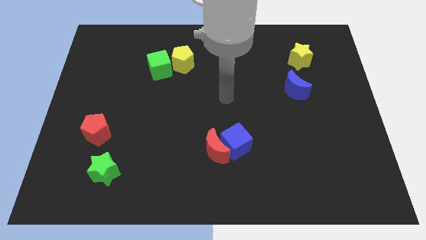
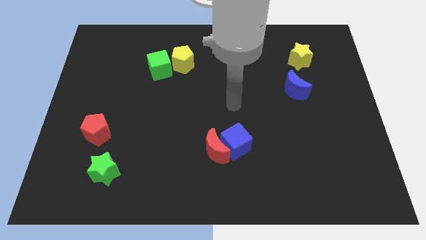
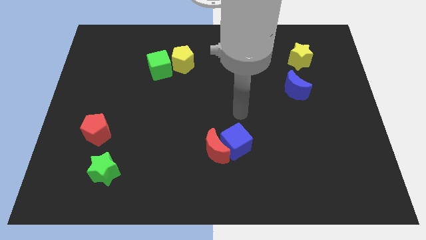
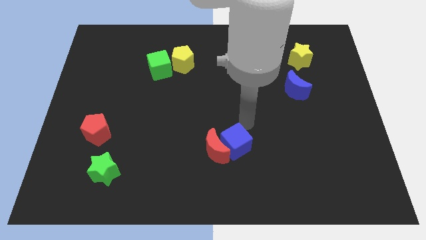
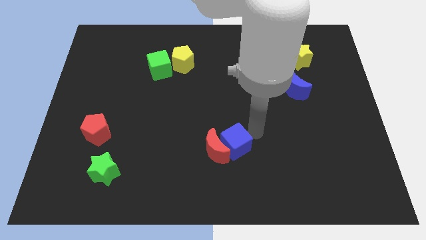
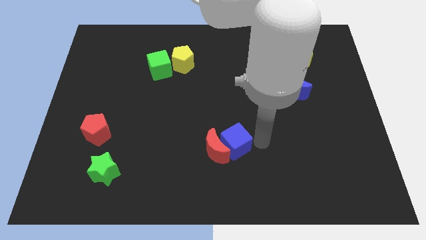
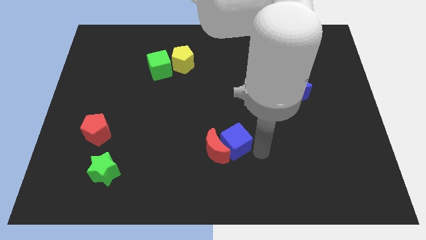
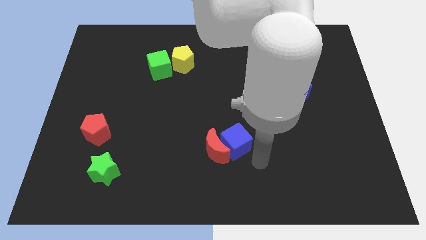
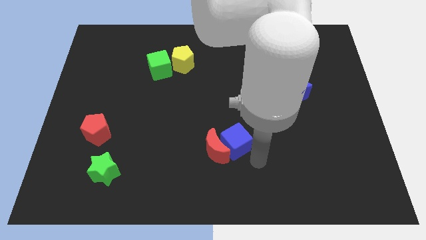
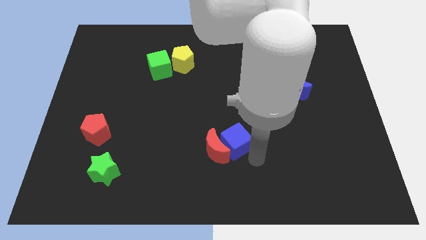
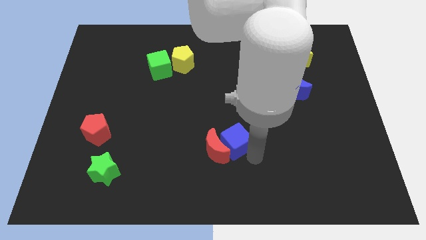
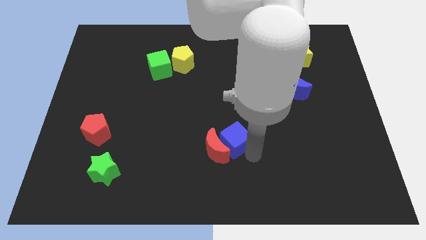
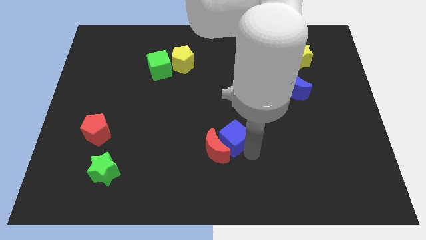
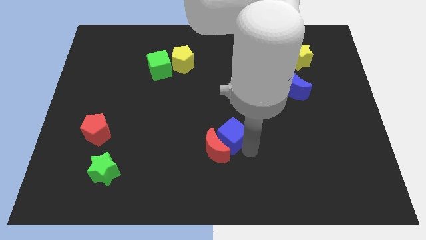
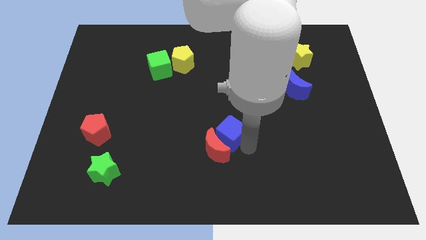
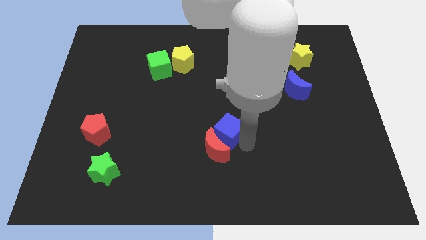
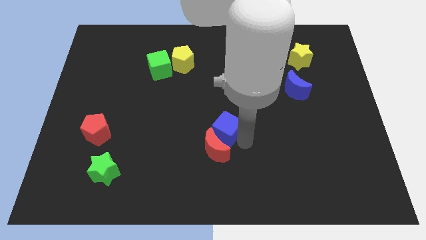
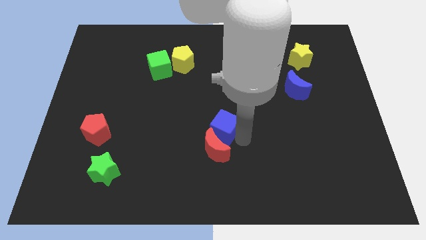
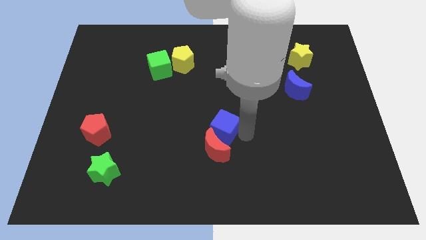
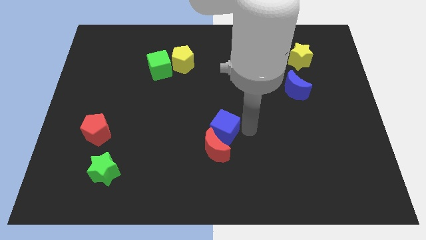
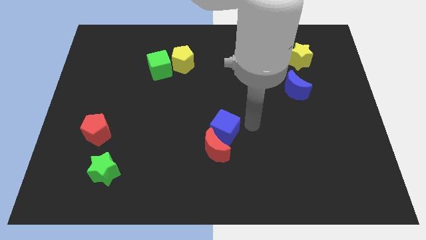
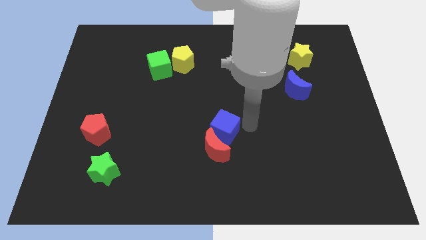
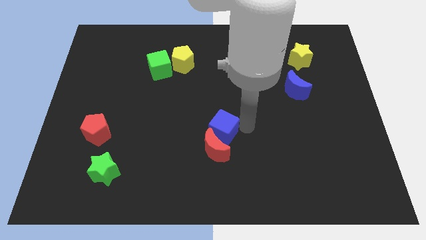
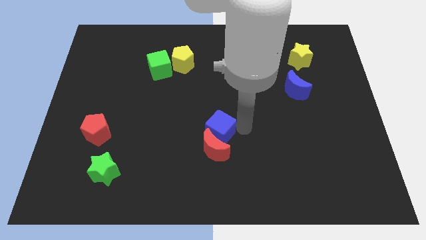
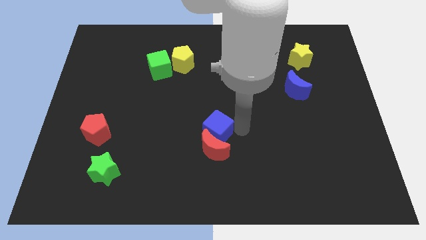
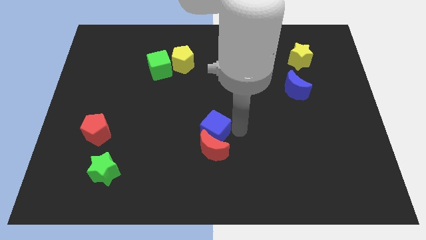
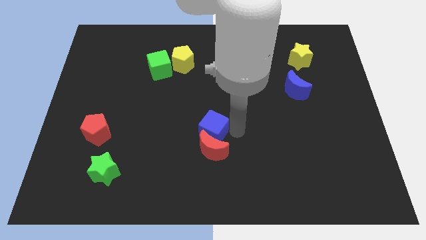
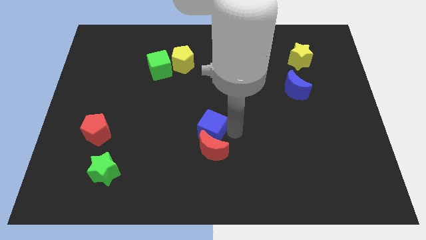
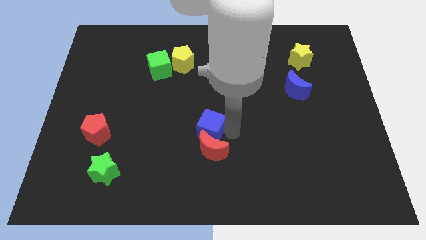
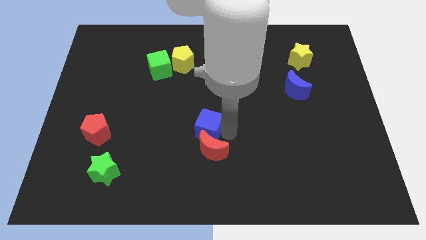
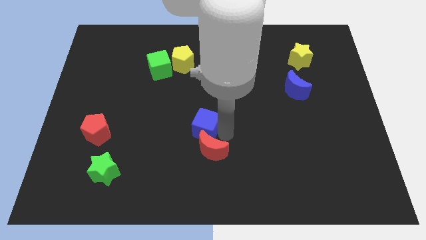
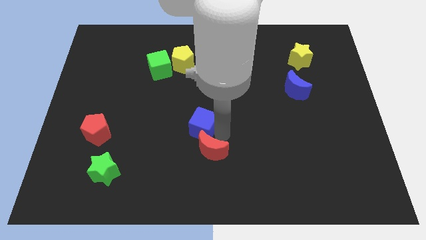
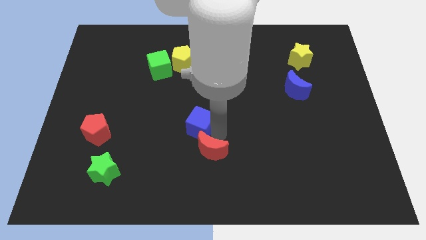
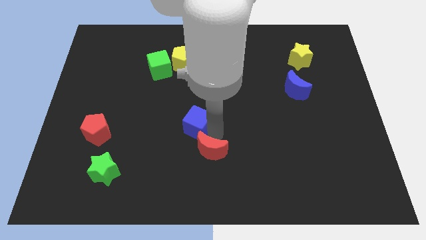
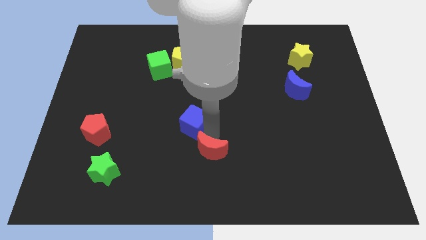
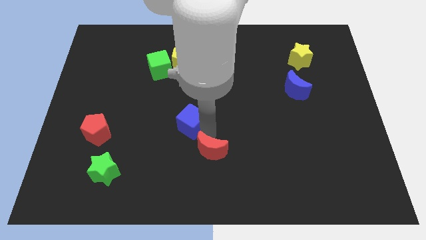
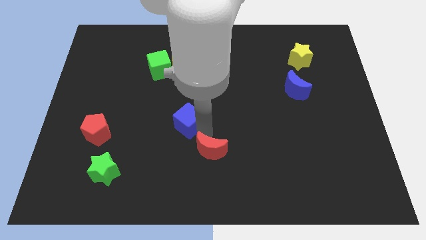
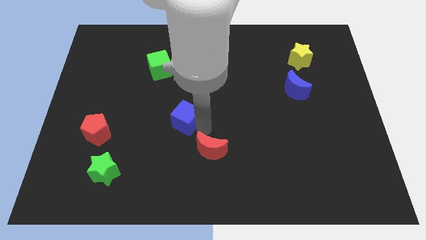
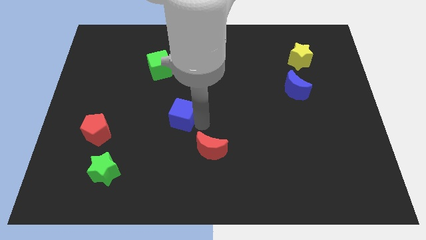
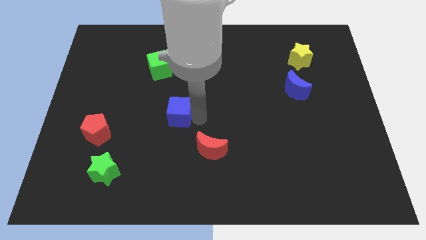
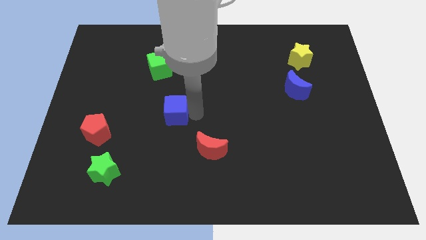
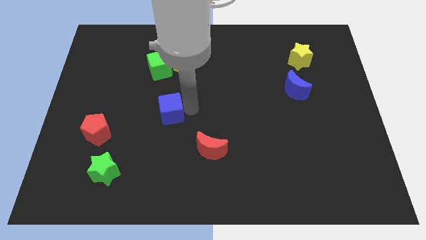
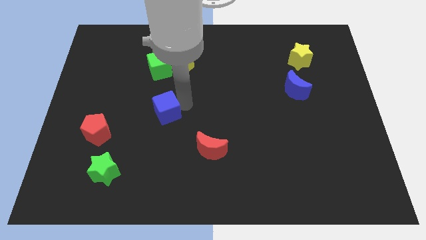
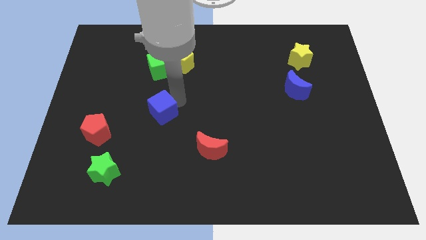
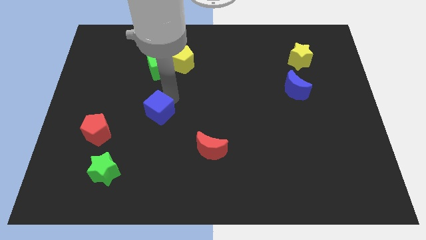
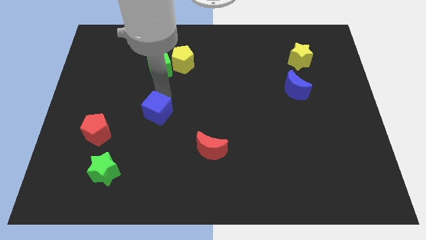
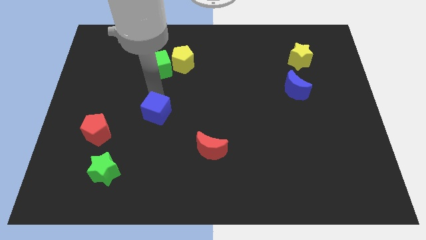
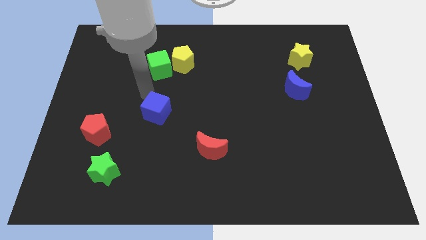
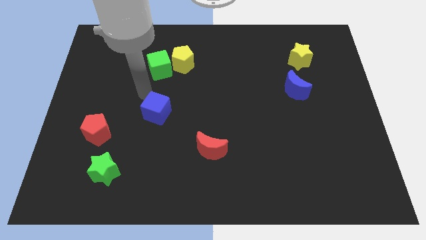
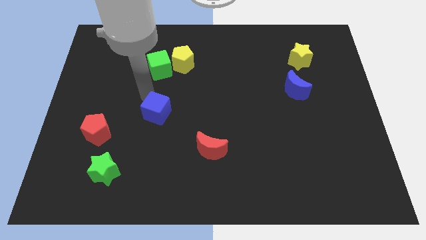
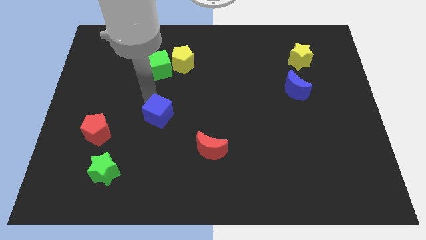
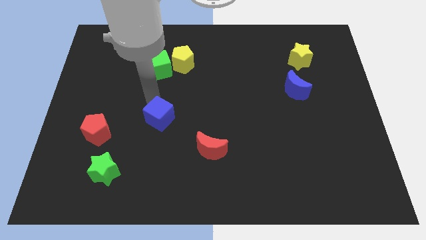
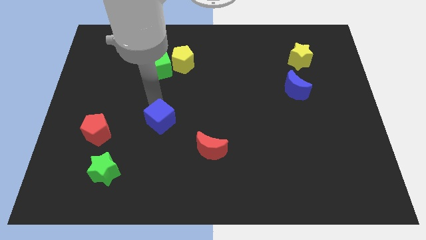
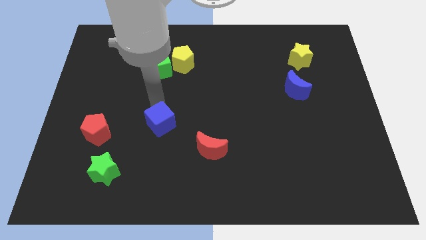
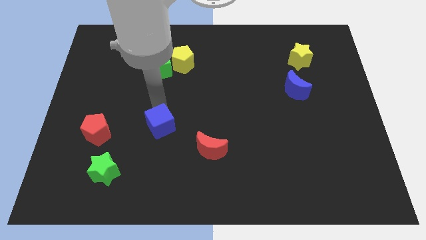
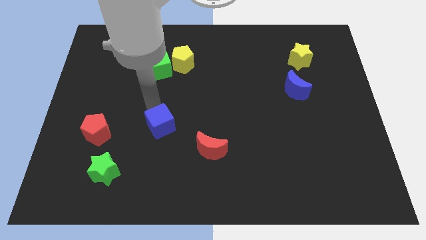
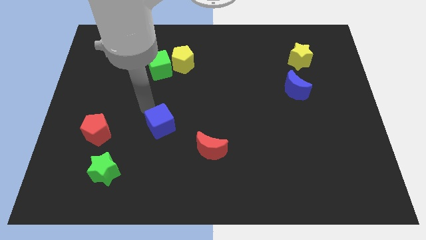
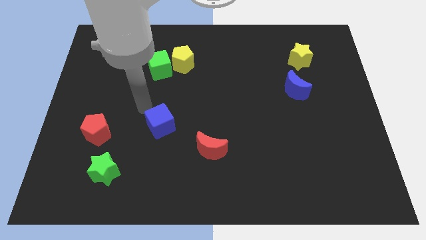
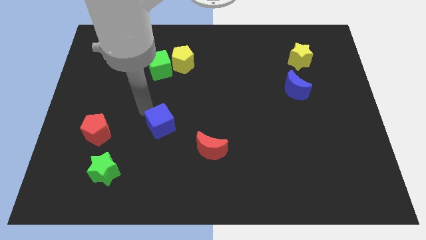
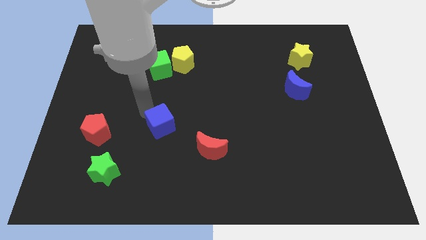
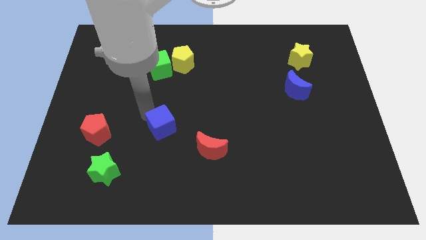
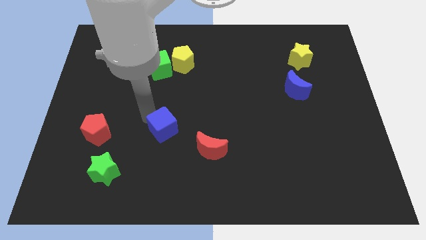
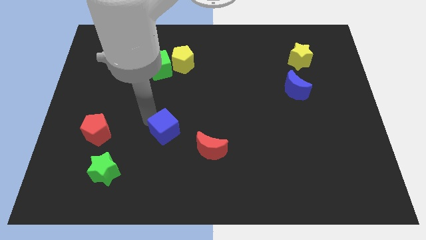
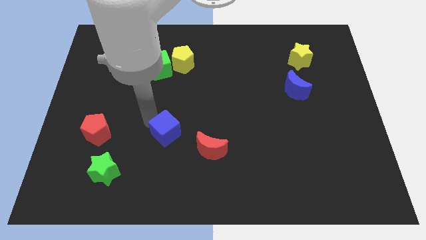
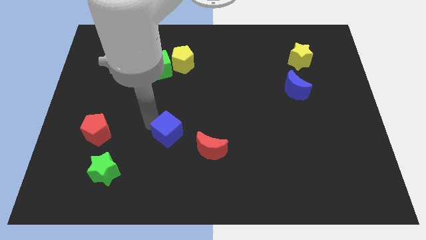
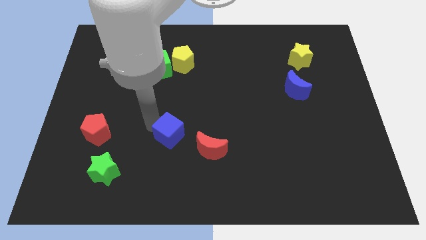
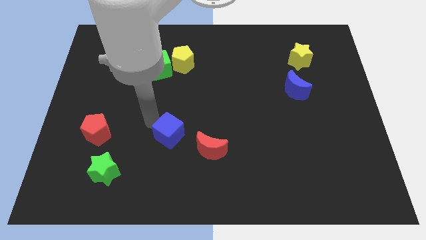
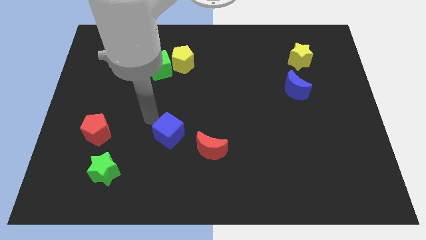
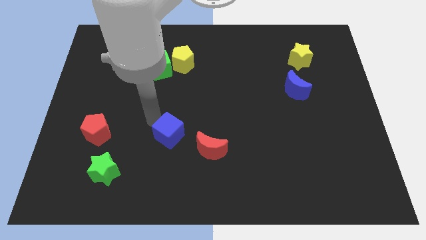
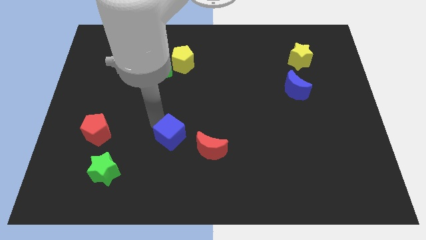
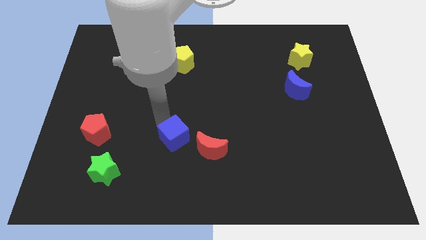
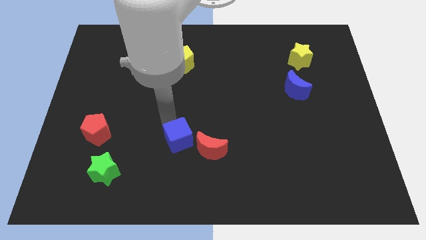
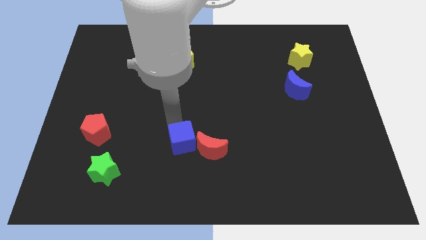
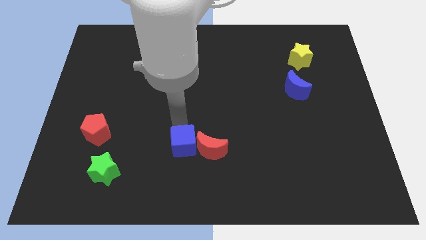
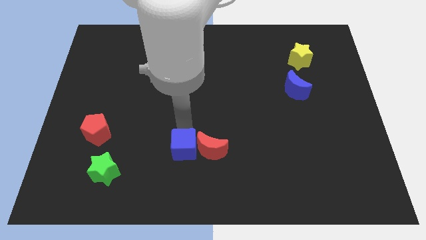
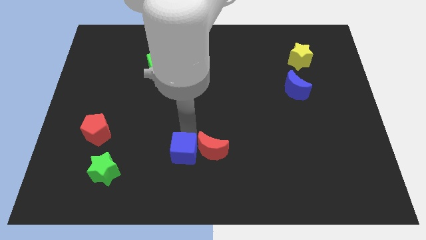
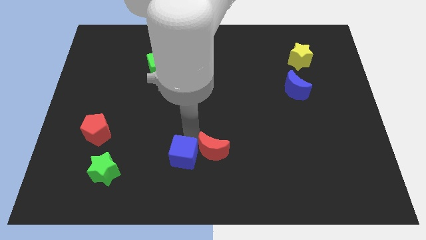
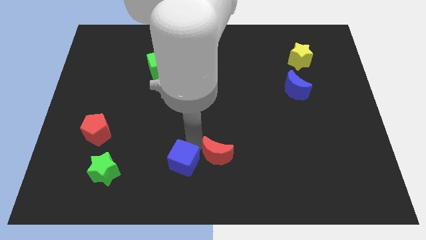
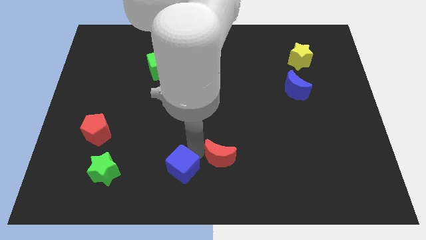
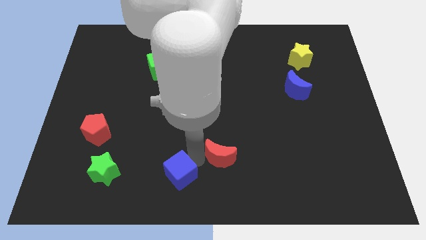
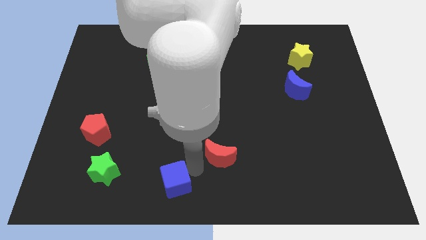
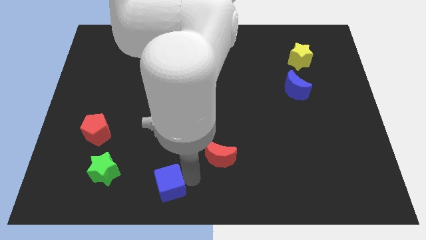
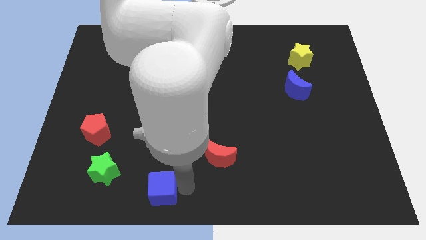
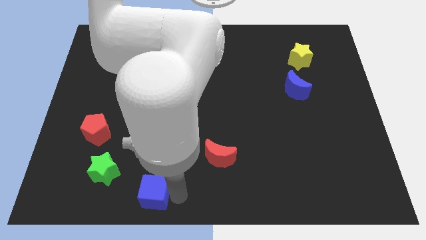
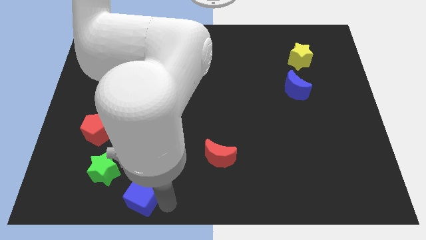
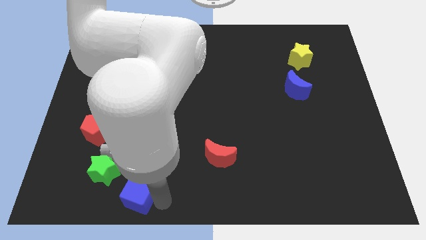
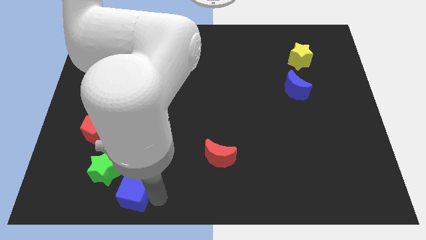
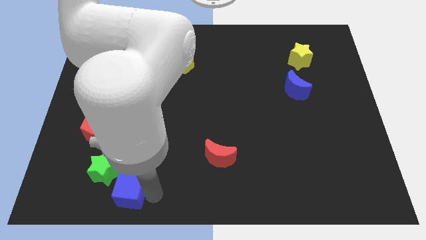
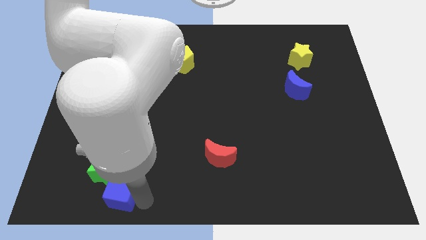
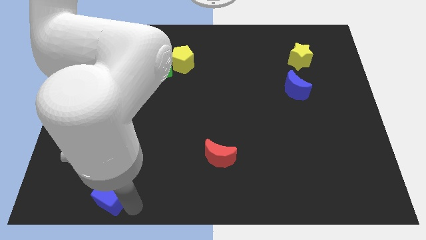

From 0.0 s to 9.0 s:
push the blue cube to the green star
